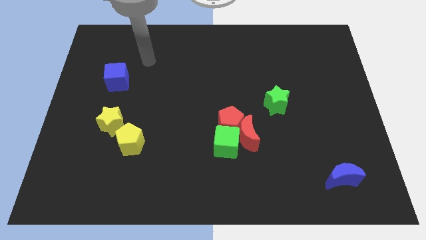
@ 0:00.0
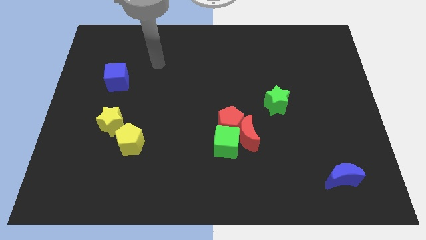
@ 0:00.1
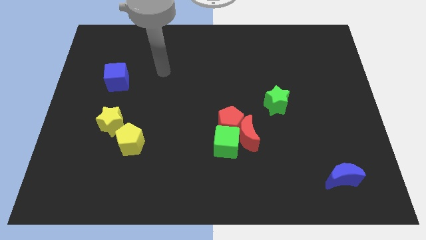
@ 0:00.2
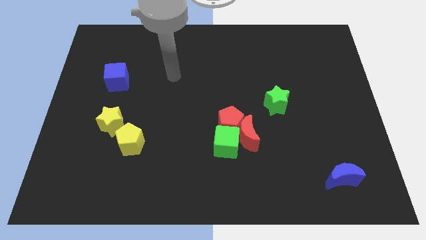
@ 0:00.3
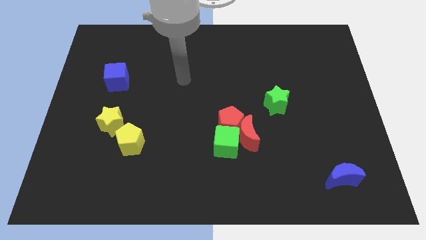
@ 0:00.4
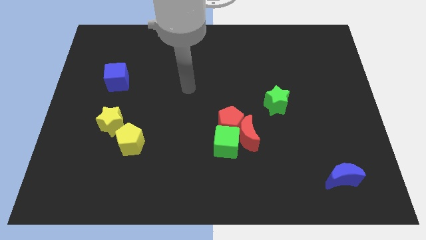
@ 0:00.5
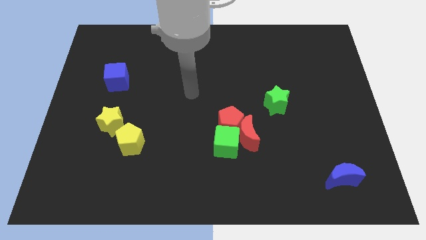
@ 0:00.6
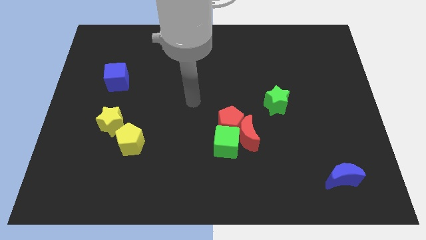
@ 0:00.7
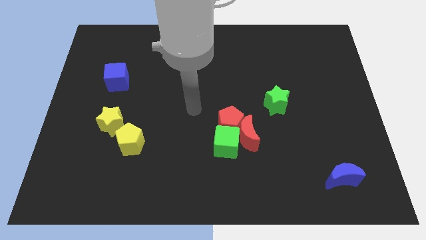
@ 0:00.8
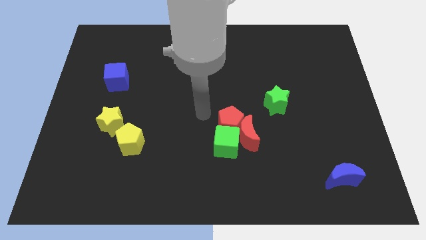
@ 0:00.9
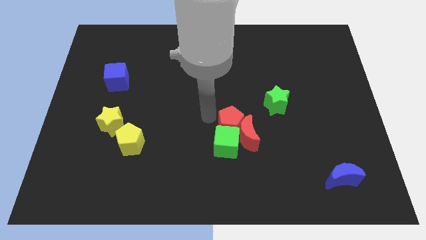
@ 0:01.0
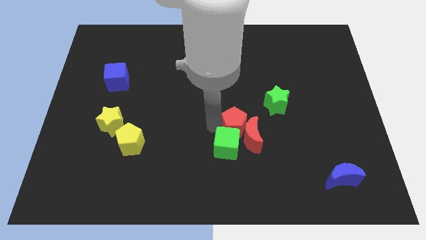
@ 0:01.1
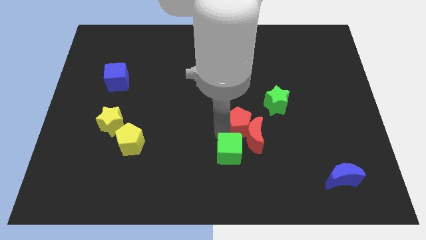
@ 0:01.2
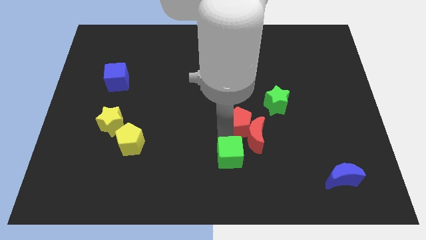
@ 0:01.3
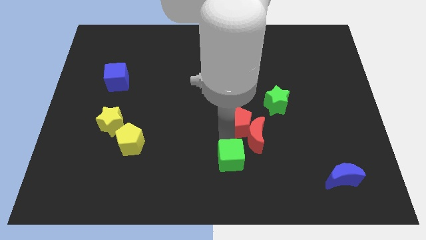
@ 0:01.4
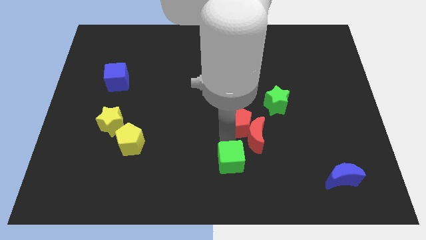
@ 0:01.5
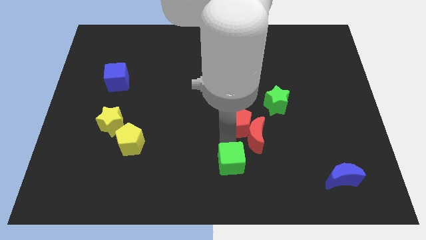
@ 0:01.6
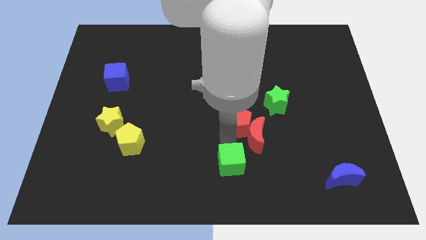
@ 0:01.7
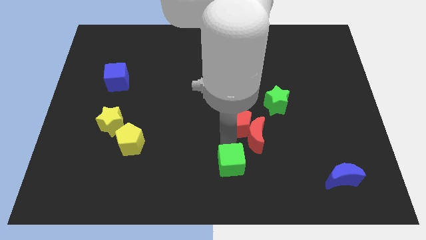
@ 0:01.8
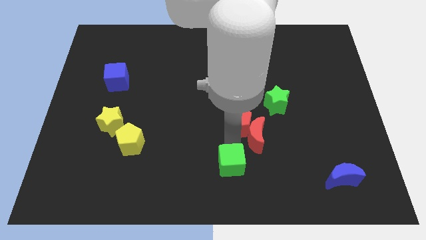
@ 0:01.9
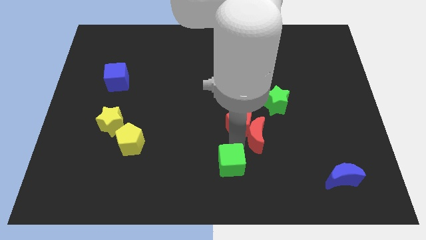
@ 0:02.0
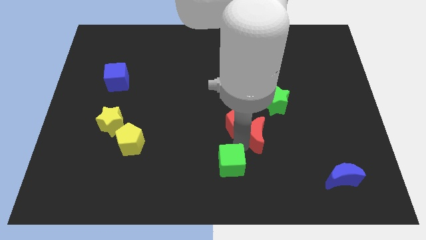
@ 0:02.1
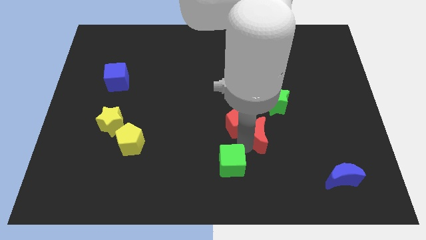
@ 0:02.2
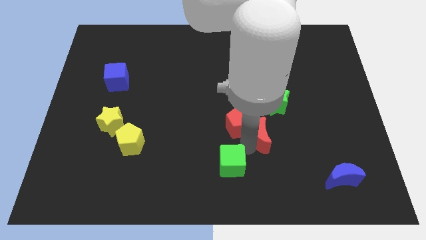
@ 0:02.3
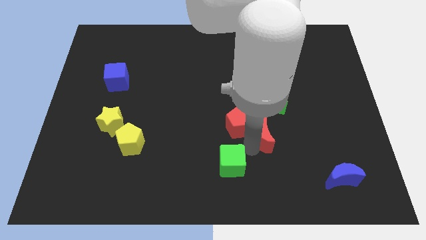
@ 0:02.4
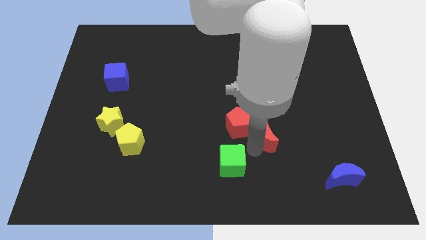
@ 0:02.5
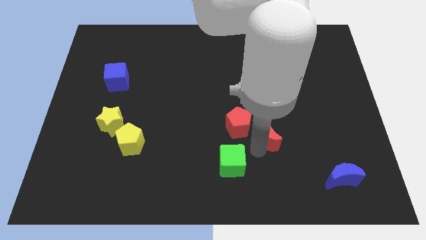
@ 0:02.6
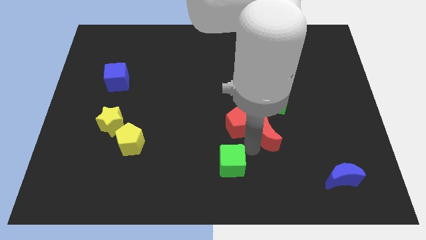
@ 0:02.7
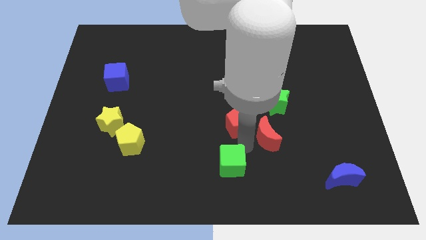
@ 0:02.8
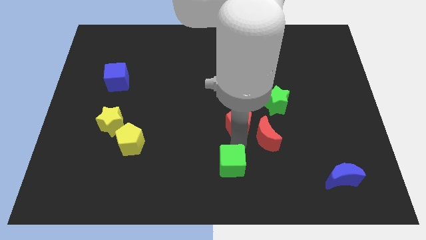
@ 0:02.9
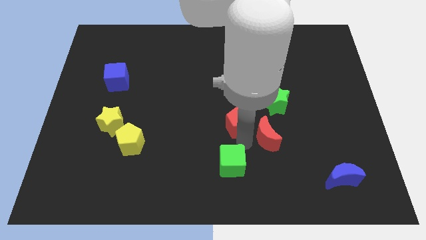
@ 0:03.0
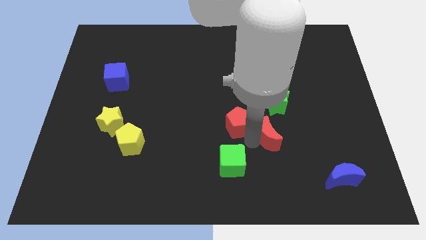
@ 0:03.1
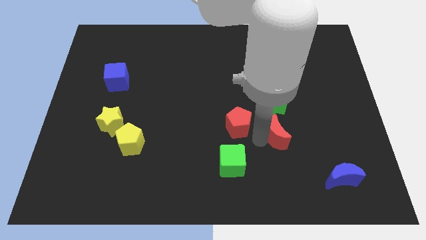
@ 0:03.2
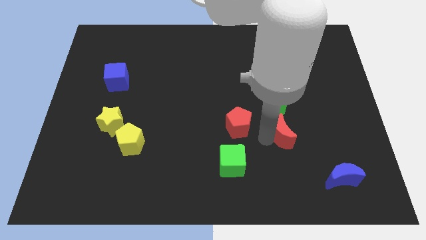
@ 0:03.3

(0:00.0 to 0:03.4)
separate the red moon from the red pentagon and green cube

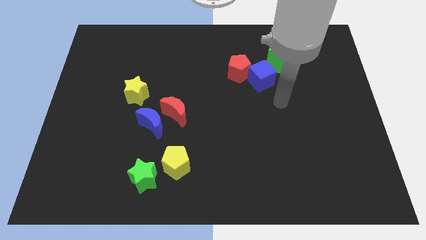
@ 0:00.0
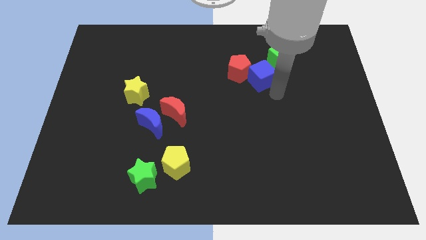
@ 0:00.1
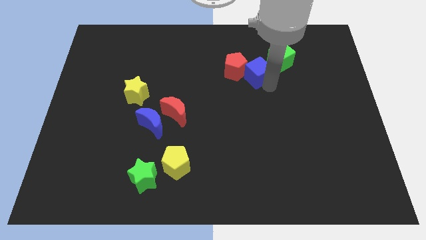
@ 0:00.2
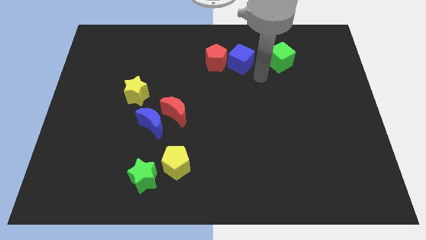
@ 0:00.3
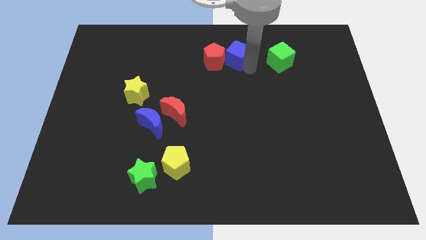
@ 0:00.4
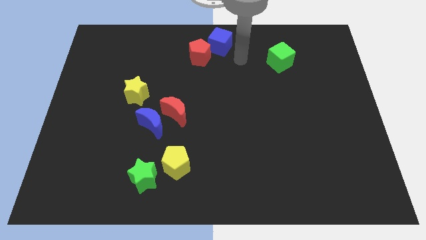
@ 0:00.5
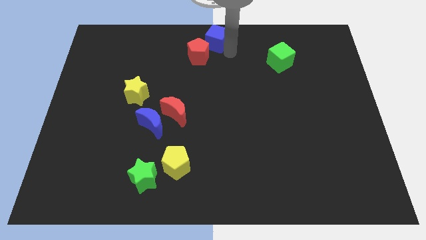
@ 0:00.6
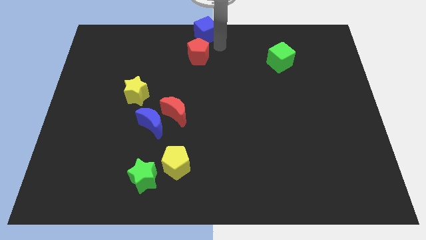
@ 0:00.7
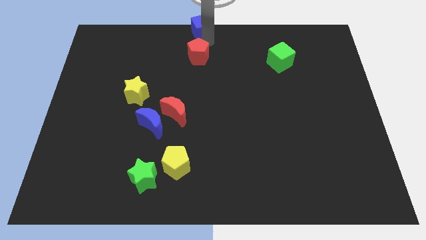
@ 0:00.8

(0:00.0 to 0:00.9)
pull the red pentagon apart from the blue cube

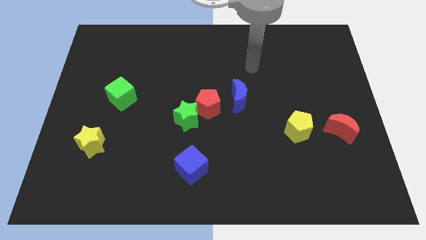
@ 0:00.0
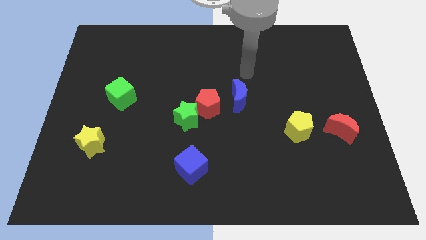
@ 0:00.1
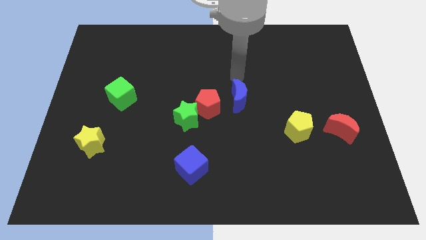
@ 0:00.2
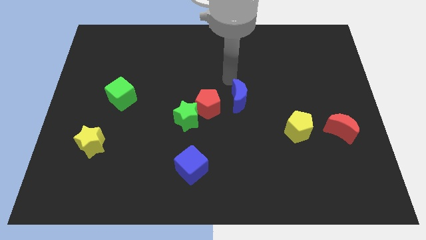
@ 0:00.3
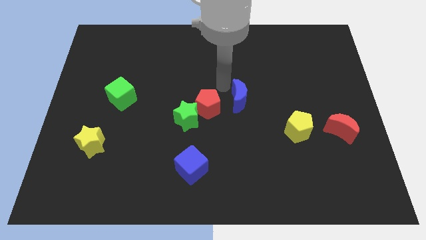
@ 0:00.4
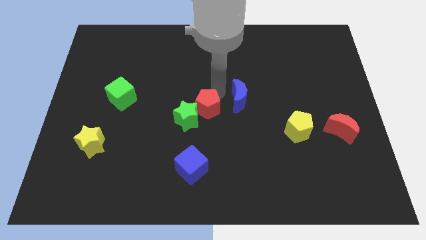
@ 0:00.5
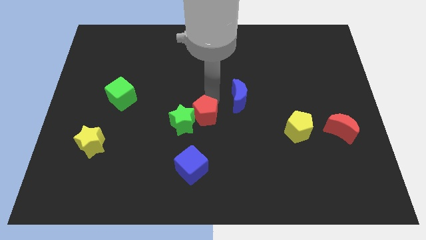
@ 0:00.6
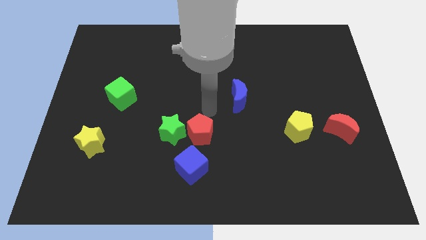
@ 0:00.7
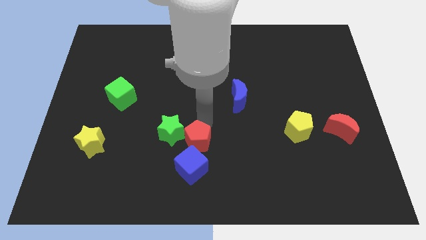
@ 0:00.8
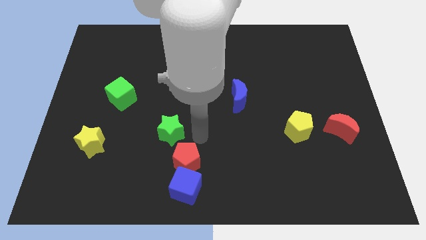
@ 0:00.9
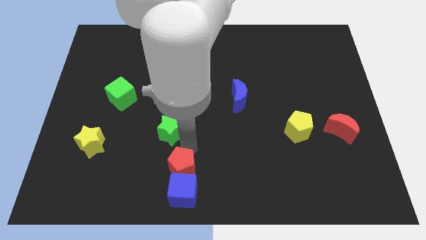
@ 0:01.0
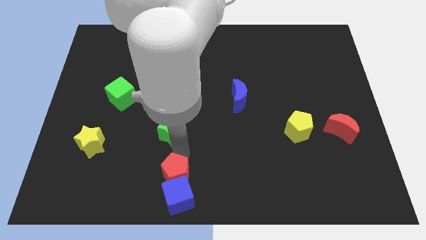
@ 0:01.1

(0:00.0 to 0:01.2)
move the green star away from the red pentagon

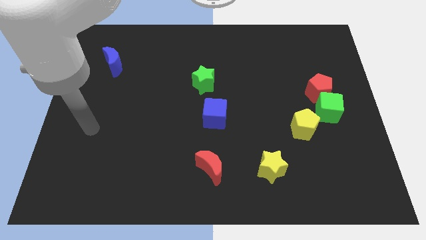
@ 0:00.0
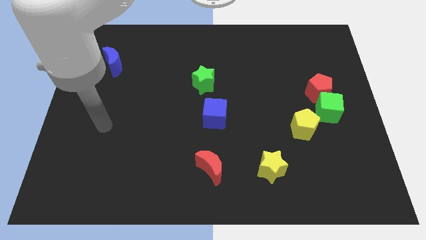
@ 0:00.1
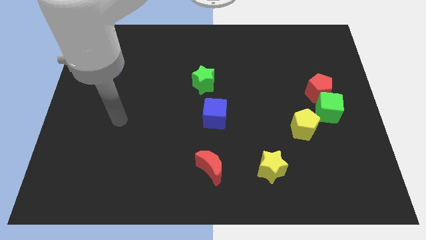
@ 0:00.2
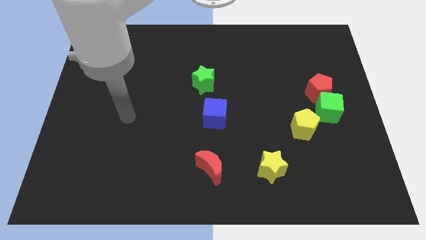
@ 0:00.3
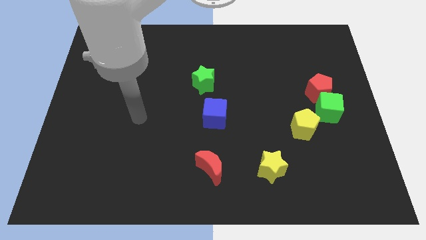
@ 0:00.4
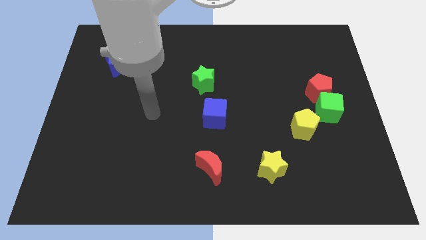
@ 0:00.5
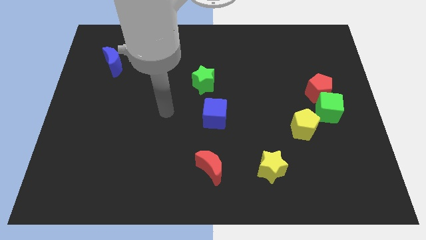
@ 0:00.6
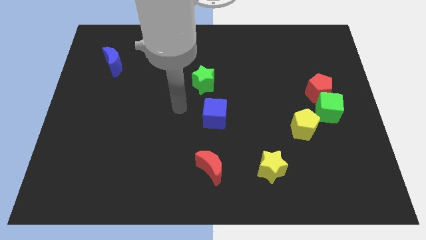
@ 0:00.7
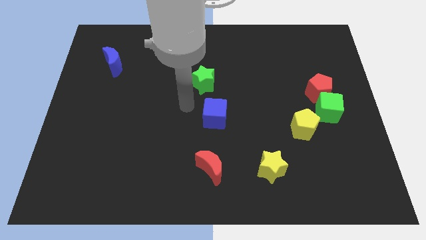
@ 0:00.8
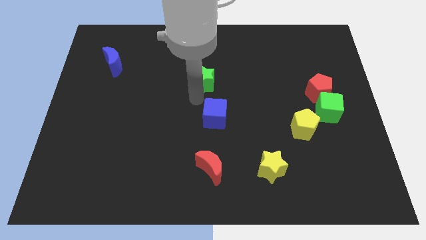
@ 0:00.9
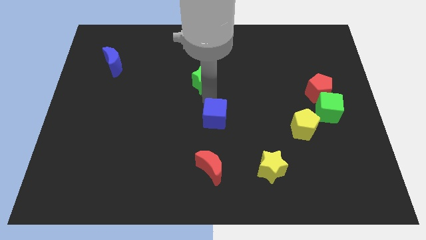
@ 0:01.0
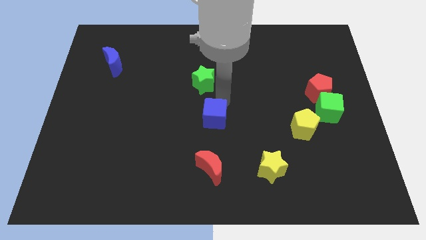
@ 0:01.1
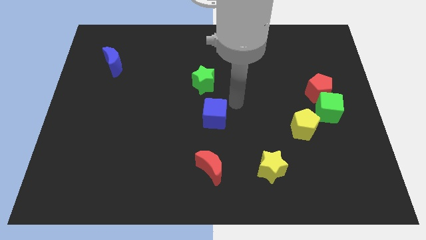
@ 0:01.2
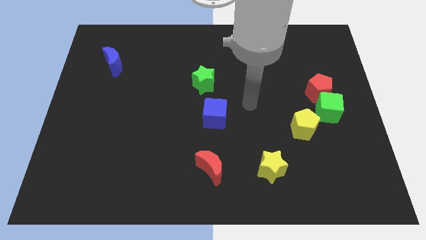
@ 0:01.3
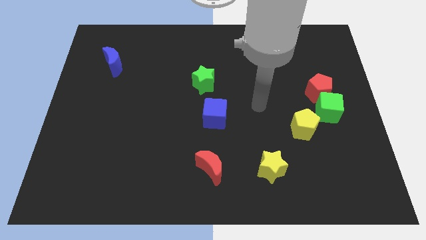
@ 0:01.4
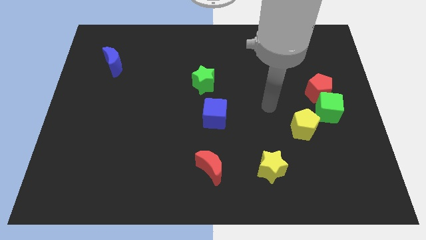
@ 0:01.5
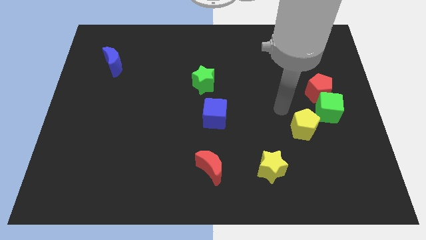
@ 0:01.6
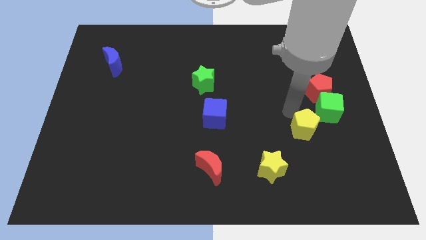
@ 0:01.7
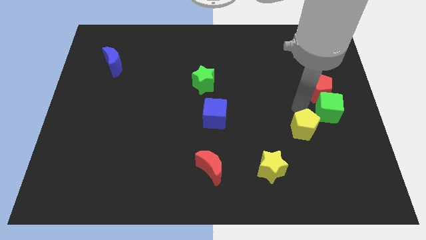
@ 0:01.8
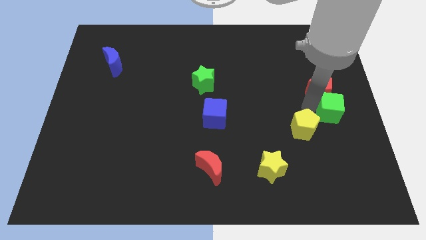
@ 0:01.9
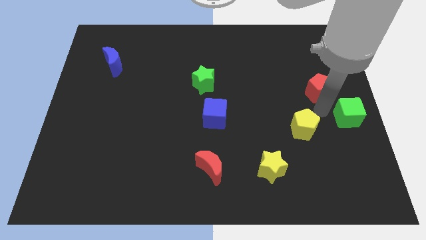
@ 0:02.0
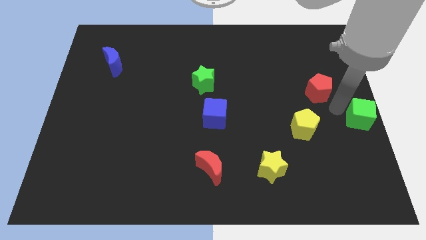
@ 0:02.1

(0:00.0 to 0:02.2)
pull the red pentagon apart from the green cube

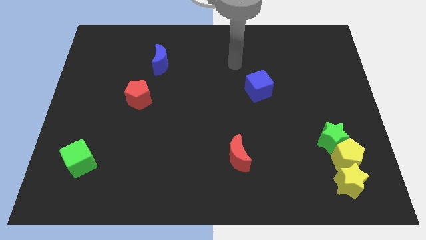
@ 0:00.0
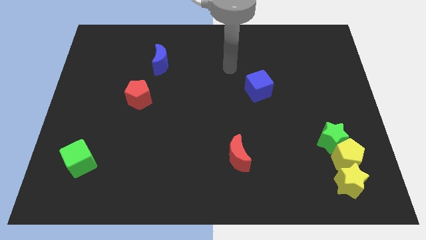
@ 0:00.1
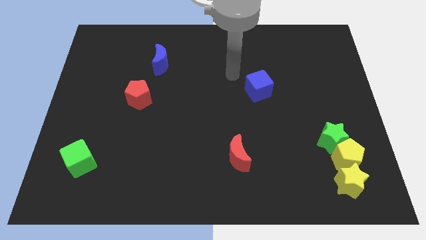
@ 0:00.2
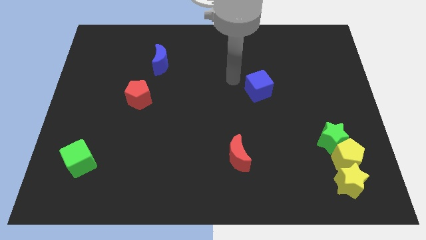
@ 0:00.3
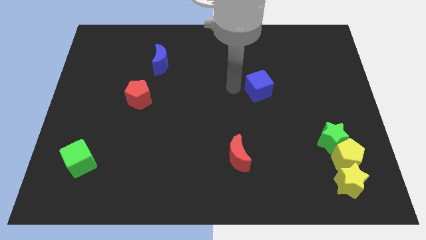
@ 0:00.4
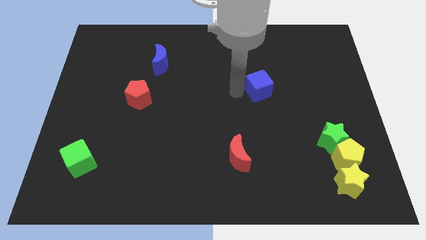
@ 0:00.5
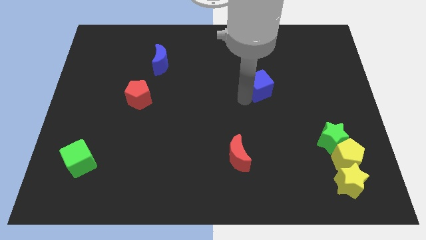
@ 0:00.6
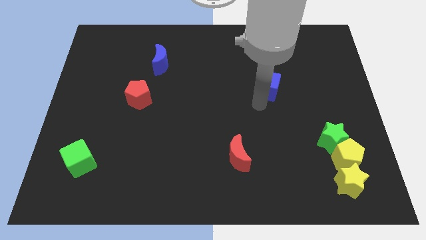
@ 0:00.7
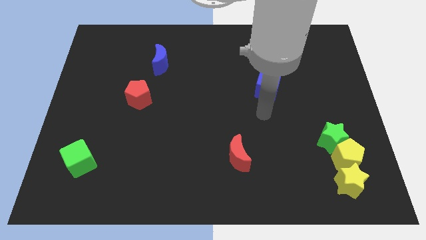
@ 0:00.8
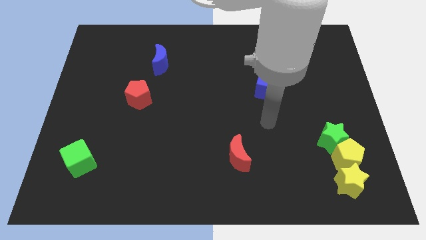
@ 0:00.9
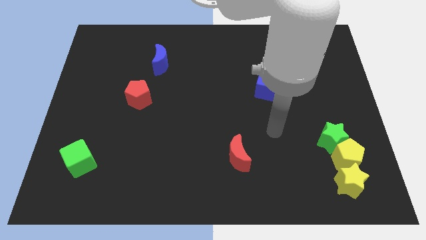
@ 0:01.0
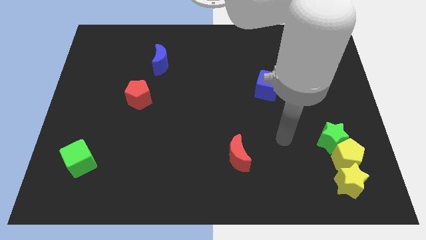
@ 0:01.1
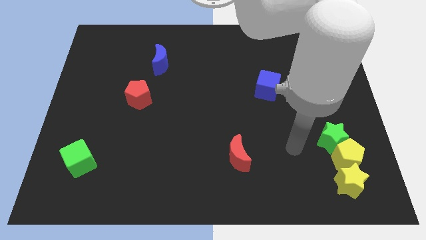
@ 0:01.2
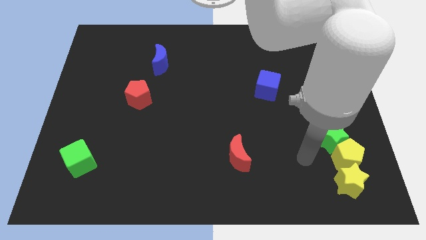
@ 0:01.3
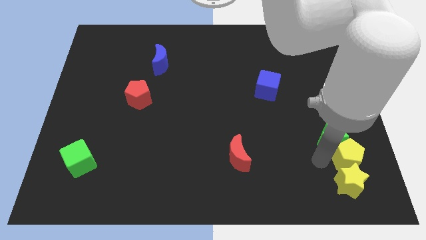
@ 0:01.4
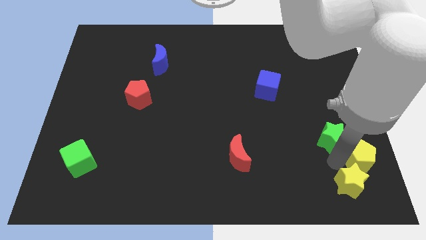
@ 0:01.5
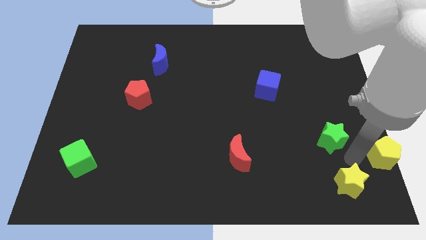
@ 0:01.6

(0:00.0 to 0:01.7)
move the green star away from the yellow pentagon

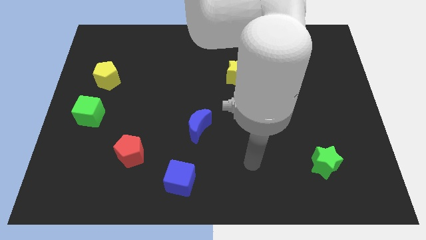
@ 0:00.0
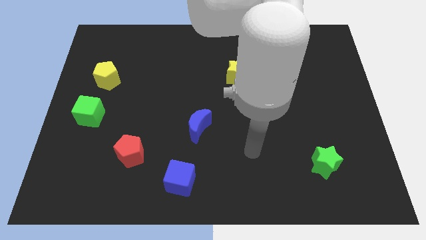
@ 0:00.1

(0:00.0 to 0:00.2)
separate the red moon from the yellow star
